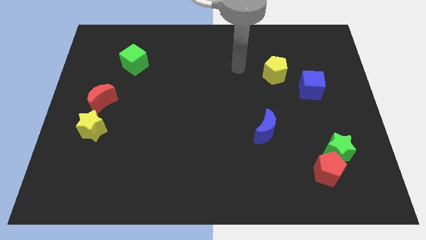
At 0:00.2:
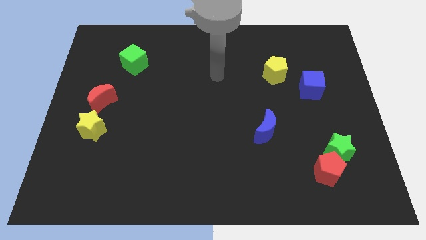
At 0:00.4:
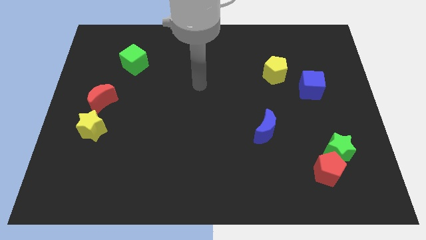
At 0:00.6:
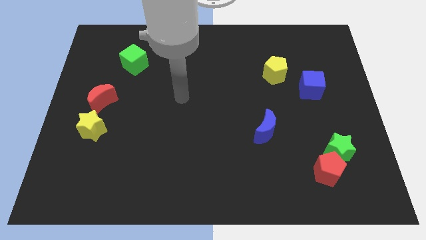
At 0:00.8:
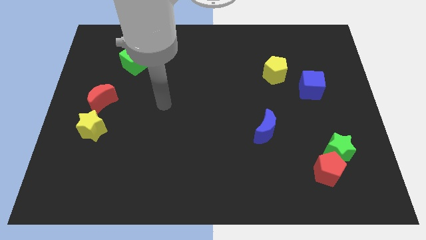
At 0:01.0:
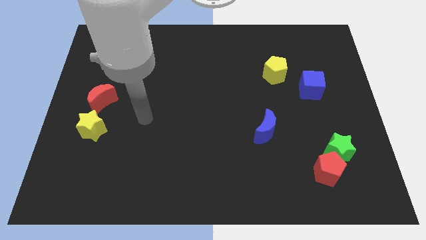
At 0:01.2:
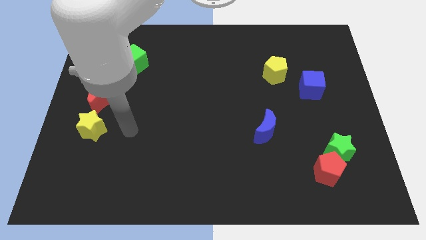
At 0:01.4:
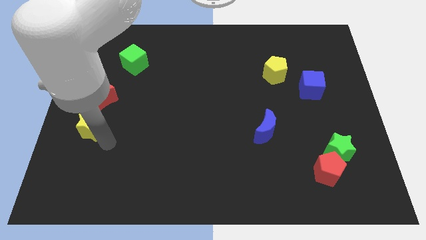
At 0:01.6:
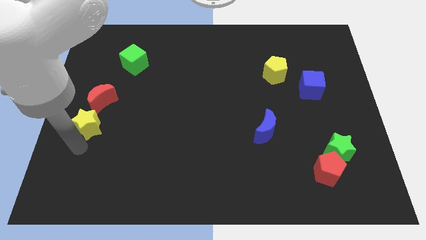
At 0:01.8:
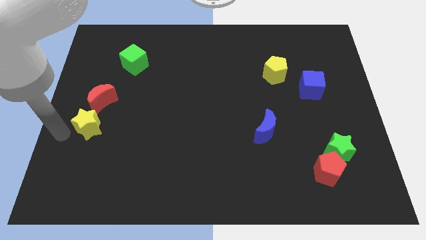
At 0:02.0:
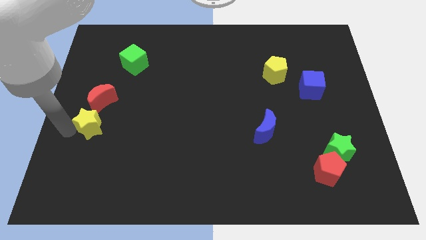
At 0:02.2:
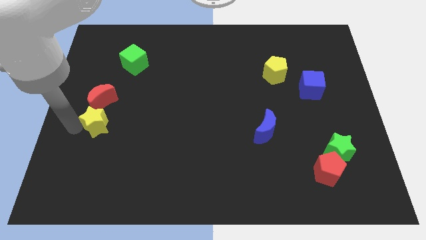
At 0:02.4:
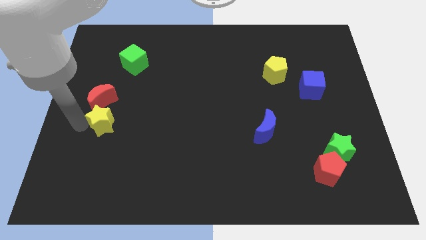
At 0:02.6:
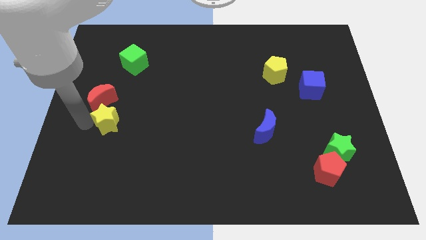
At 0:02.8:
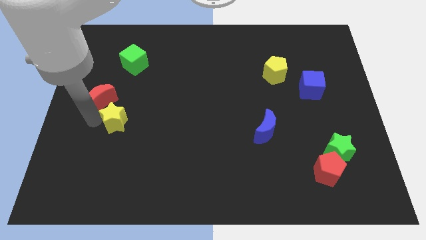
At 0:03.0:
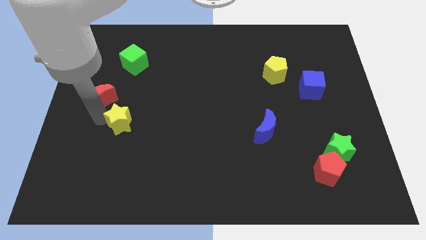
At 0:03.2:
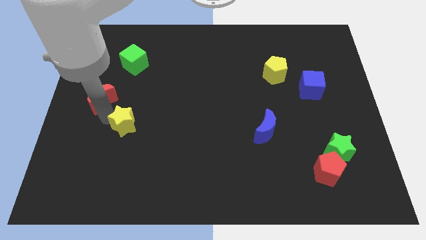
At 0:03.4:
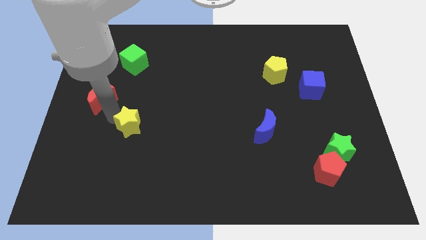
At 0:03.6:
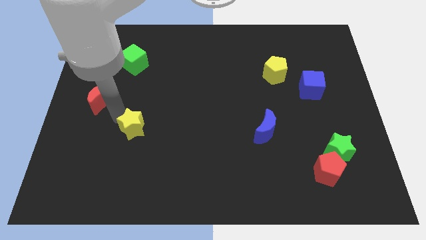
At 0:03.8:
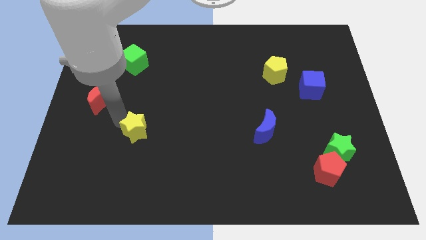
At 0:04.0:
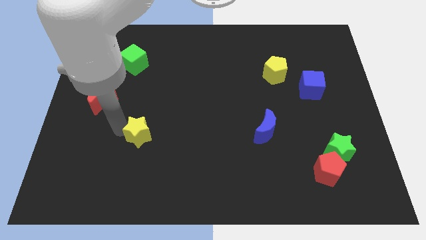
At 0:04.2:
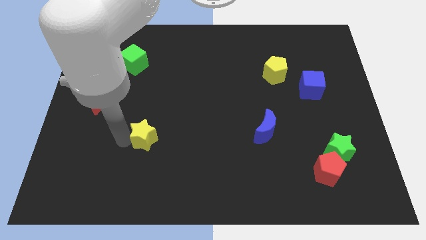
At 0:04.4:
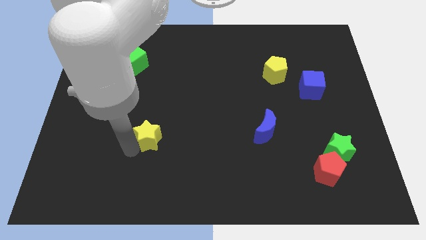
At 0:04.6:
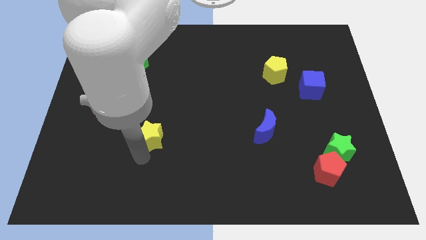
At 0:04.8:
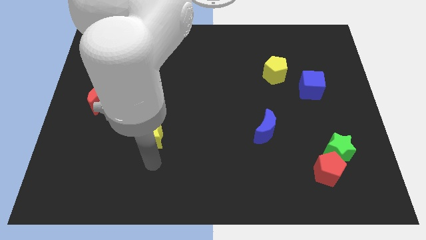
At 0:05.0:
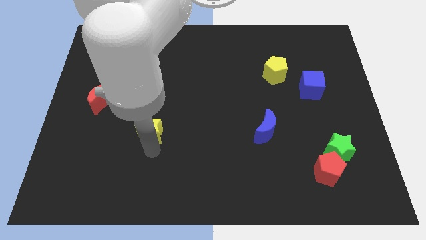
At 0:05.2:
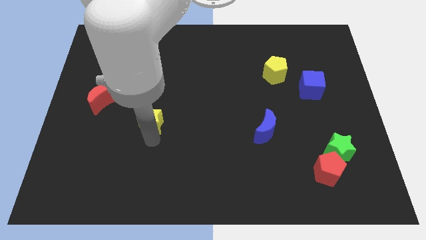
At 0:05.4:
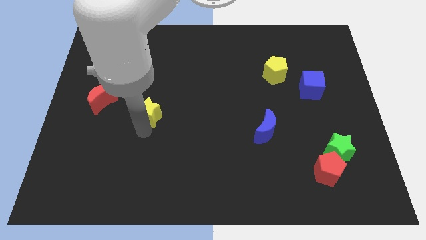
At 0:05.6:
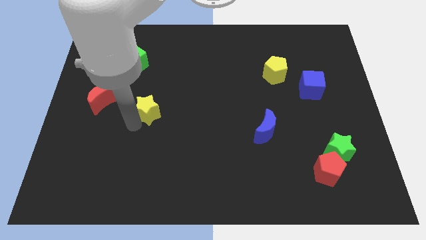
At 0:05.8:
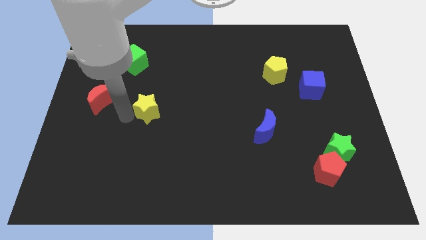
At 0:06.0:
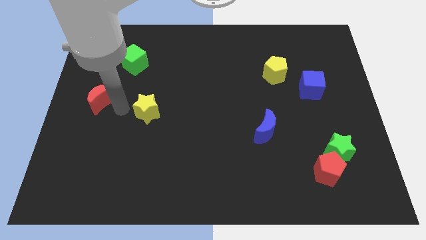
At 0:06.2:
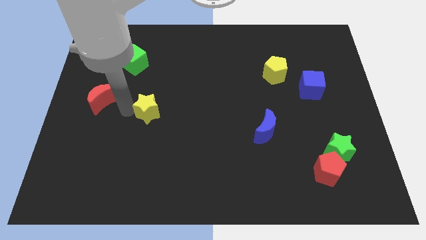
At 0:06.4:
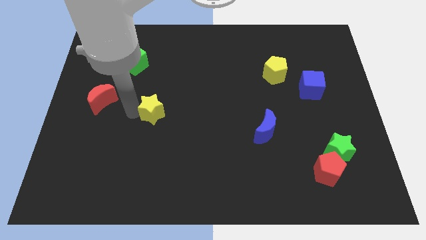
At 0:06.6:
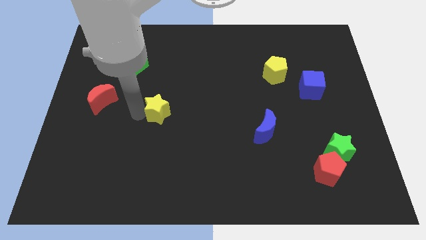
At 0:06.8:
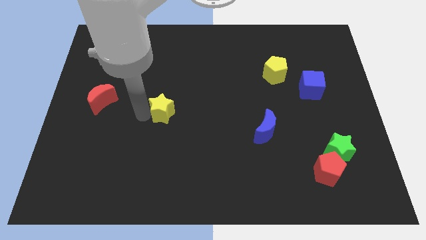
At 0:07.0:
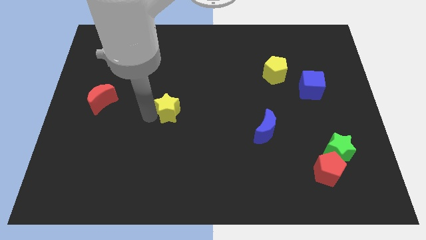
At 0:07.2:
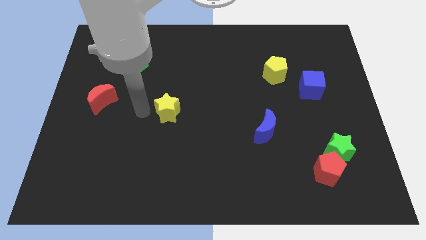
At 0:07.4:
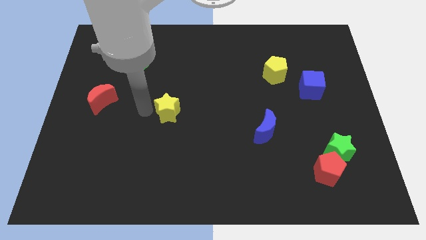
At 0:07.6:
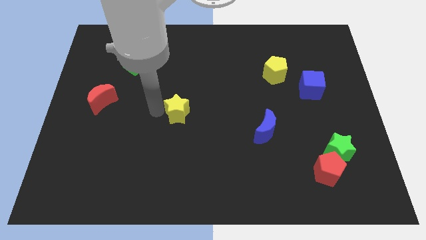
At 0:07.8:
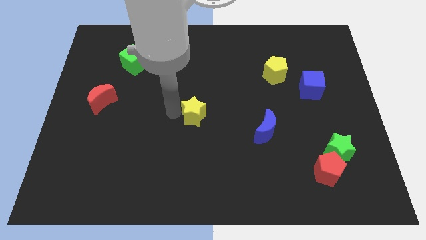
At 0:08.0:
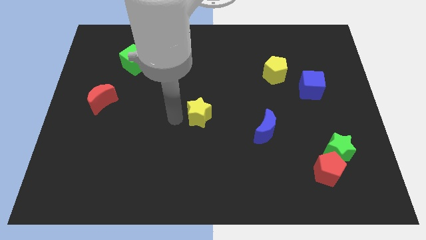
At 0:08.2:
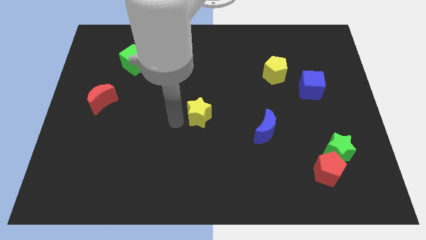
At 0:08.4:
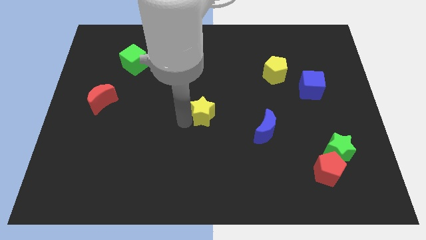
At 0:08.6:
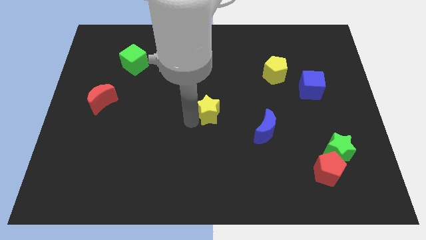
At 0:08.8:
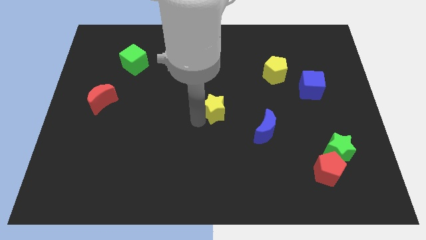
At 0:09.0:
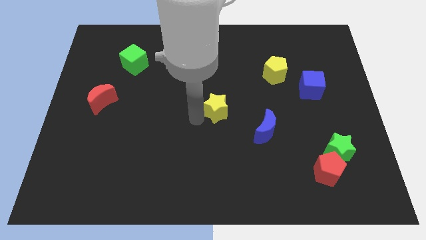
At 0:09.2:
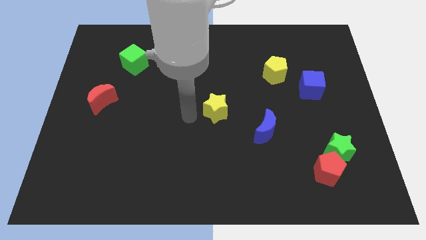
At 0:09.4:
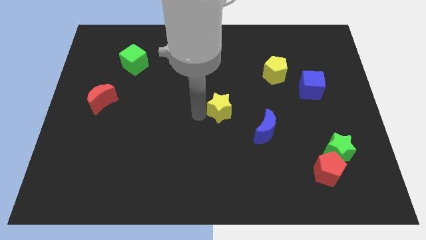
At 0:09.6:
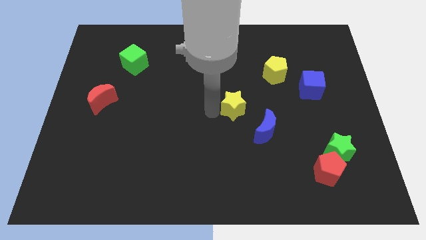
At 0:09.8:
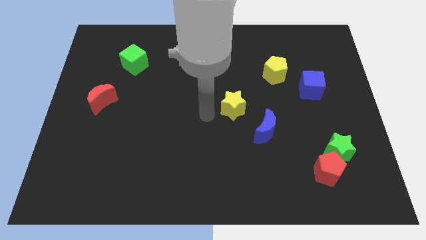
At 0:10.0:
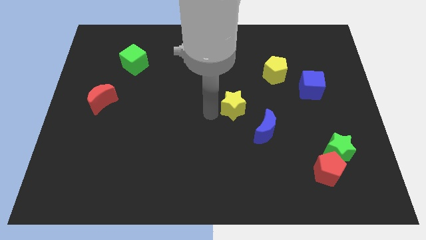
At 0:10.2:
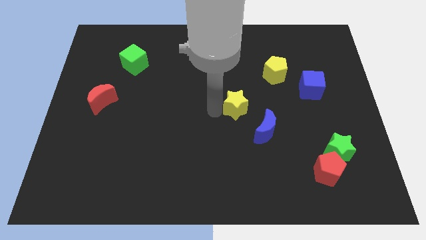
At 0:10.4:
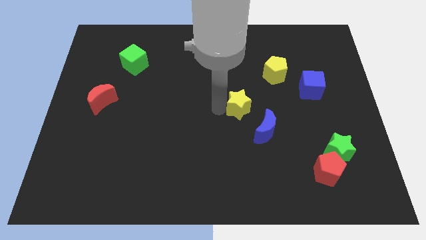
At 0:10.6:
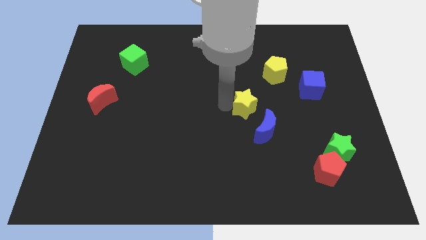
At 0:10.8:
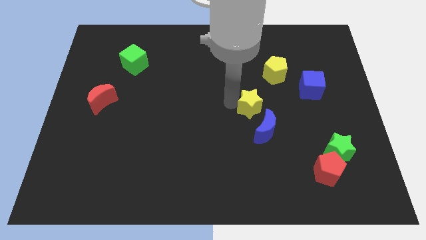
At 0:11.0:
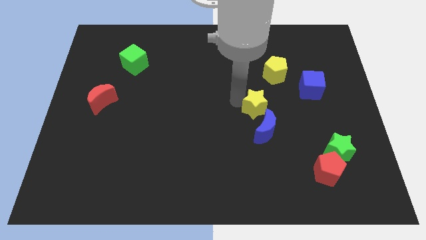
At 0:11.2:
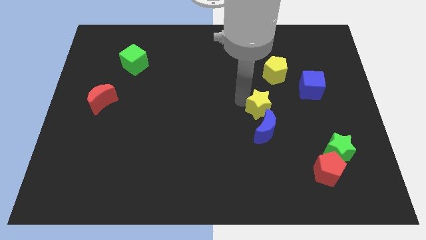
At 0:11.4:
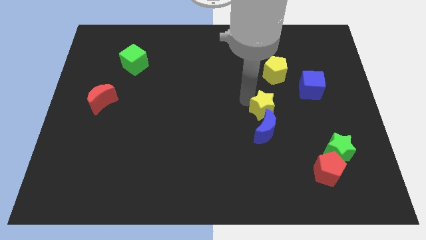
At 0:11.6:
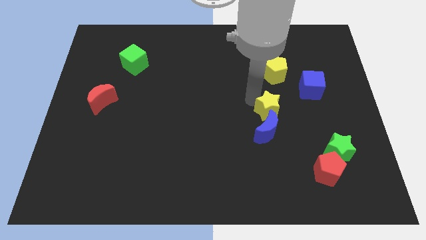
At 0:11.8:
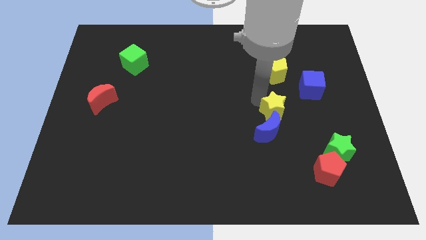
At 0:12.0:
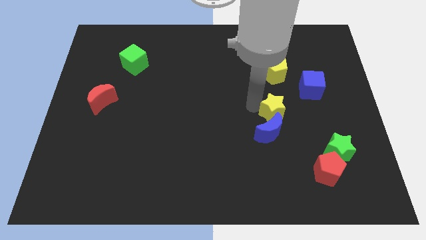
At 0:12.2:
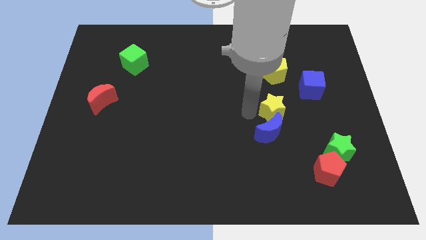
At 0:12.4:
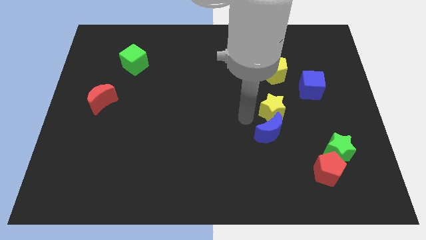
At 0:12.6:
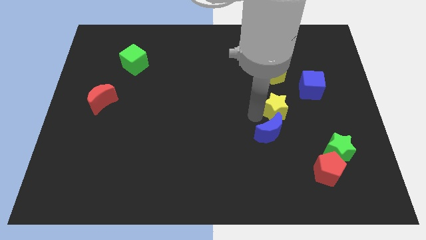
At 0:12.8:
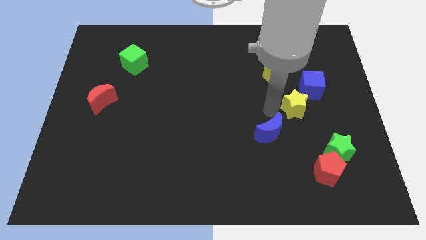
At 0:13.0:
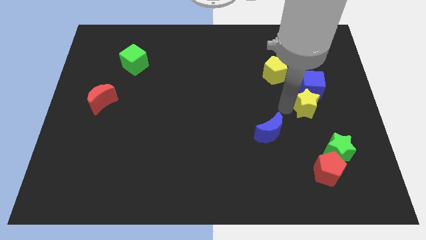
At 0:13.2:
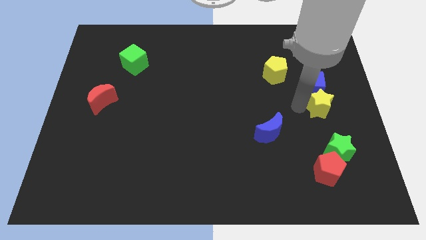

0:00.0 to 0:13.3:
move the yellow star to the center right

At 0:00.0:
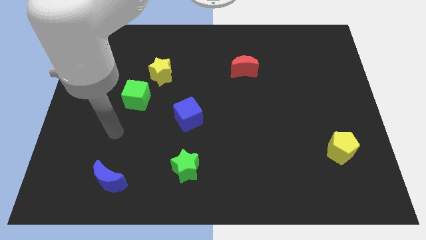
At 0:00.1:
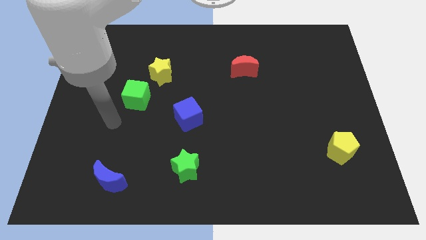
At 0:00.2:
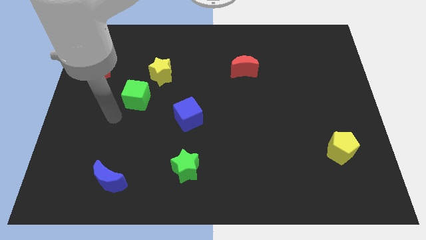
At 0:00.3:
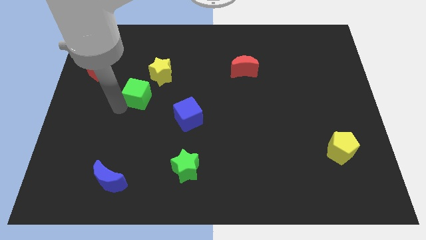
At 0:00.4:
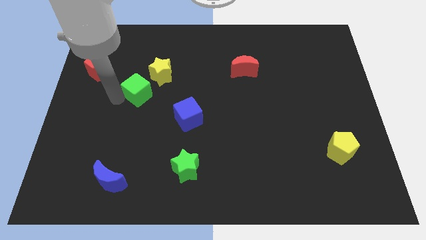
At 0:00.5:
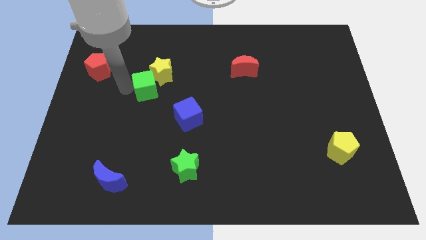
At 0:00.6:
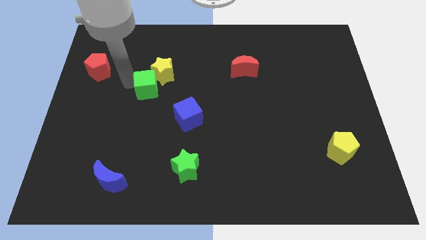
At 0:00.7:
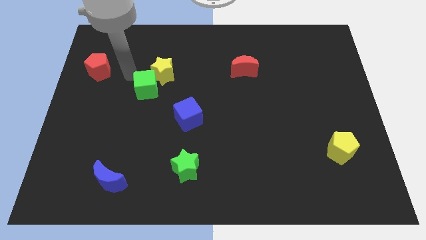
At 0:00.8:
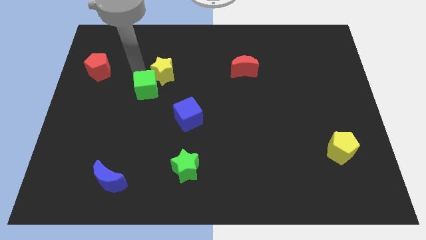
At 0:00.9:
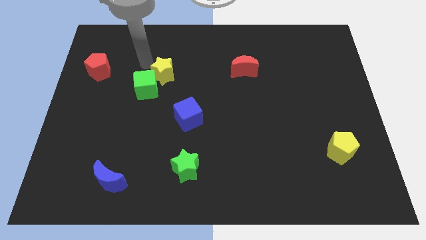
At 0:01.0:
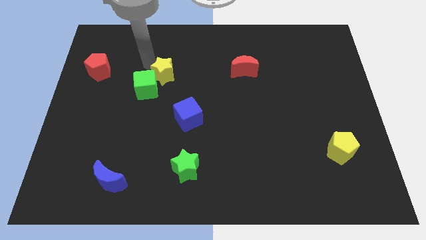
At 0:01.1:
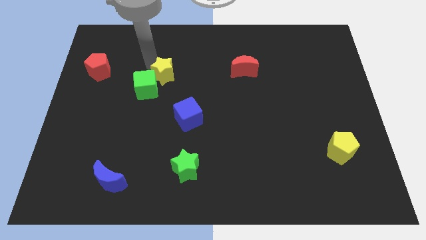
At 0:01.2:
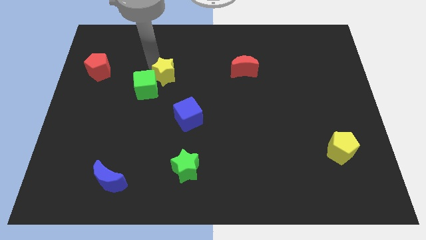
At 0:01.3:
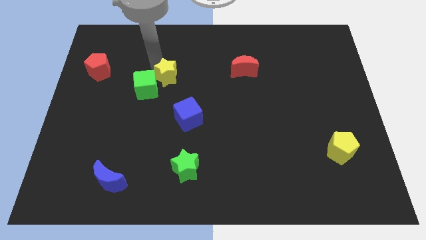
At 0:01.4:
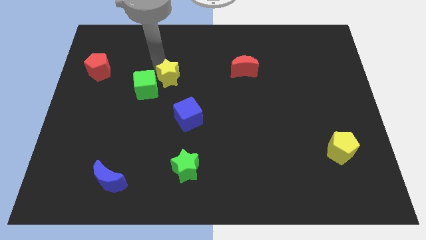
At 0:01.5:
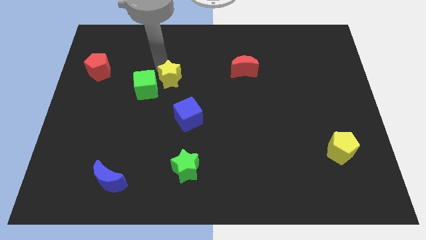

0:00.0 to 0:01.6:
push the yellow star to the middle
